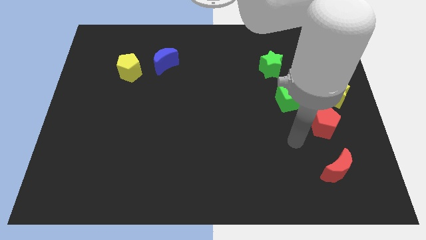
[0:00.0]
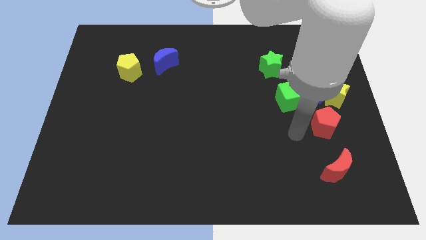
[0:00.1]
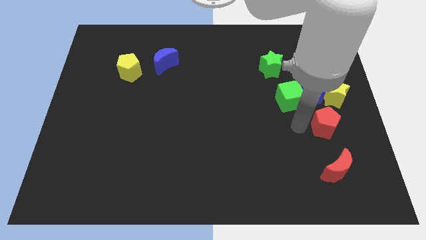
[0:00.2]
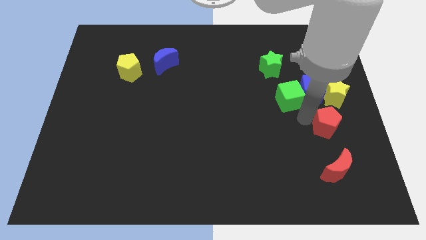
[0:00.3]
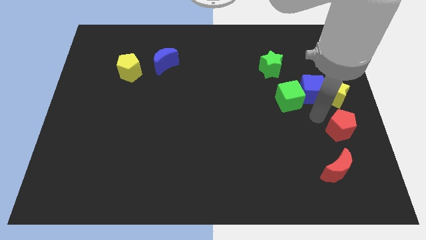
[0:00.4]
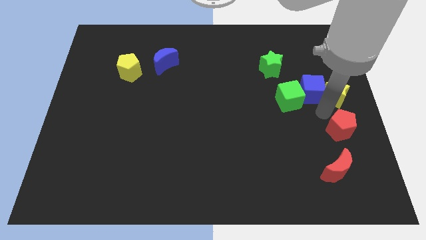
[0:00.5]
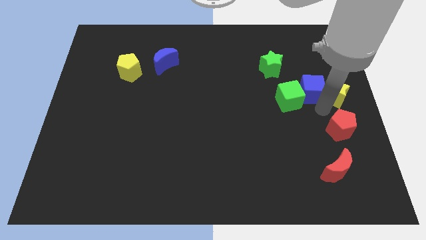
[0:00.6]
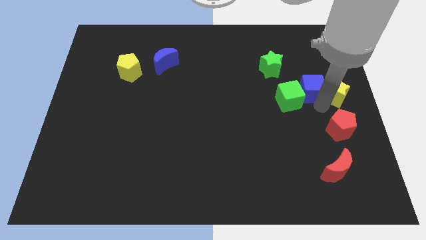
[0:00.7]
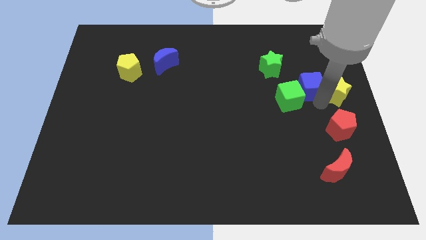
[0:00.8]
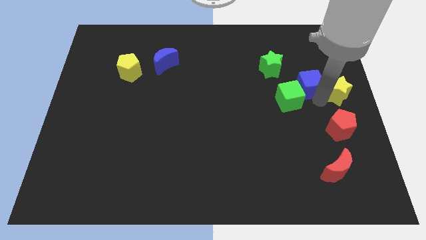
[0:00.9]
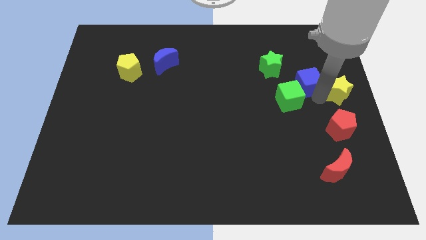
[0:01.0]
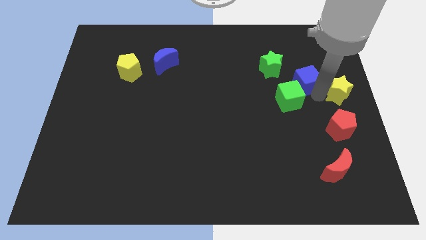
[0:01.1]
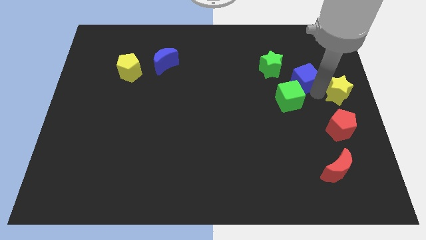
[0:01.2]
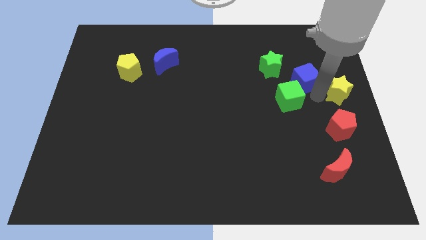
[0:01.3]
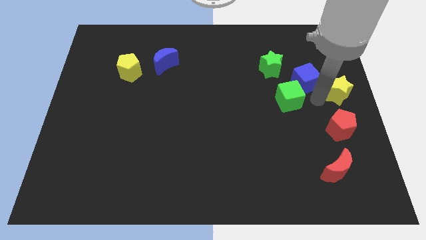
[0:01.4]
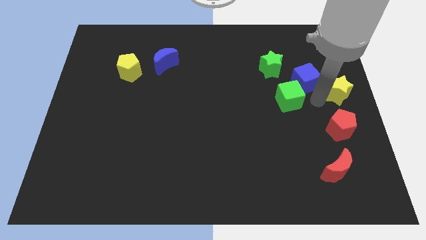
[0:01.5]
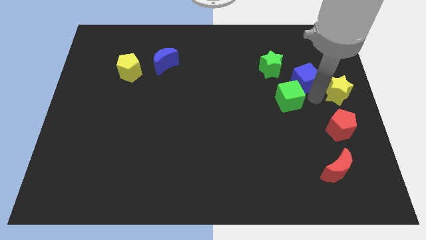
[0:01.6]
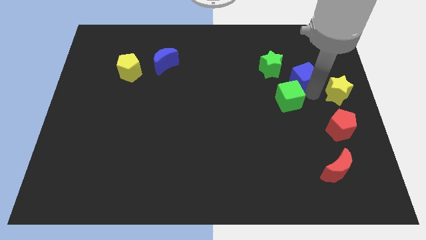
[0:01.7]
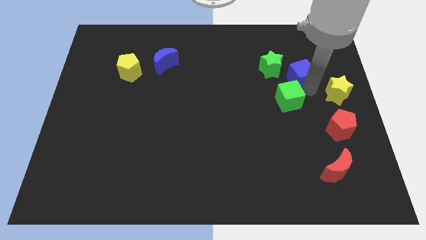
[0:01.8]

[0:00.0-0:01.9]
move the blue cube away from the group of blocks

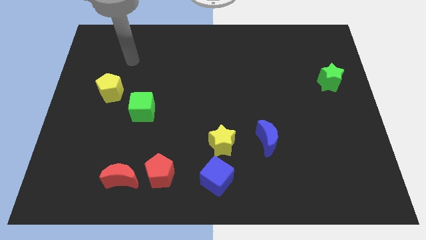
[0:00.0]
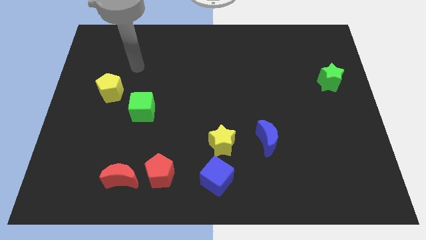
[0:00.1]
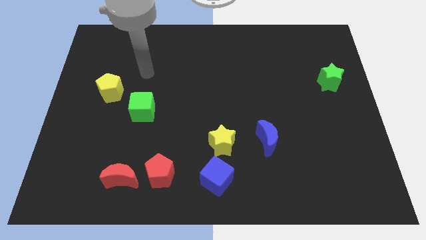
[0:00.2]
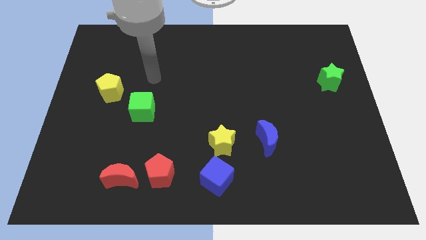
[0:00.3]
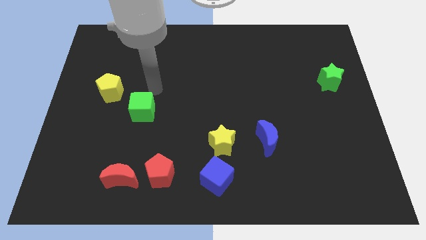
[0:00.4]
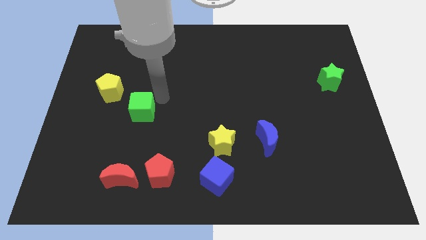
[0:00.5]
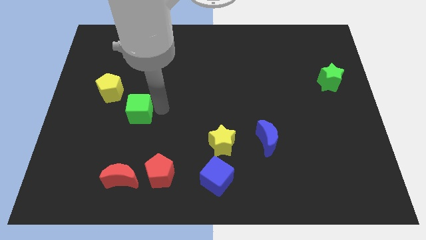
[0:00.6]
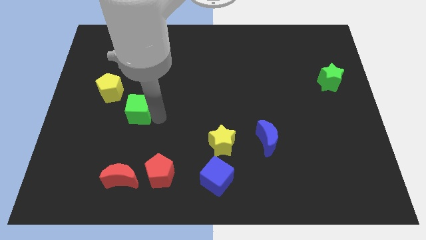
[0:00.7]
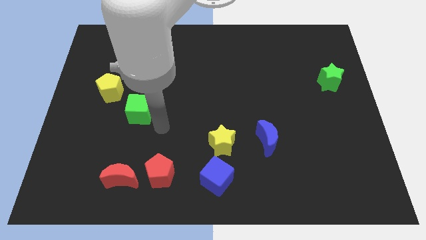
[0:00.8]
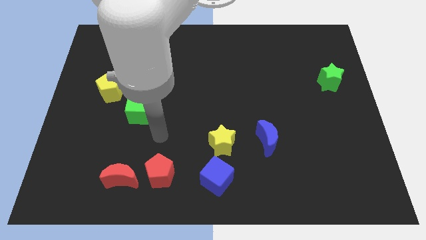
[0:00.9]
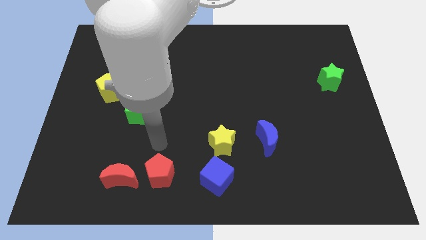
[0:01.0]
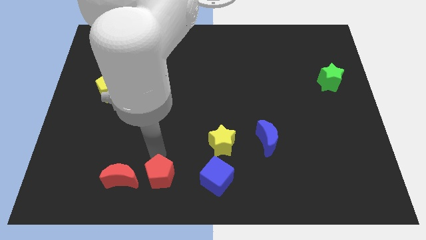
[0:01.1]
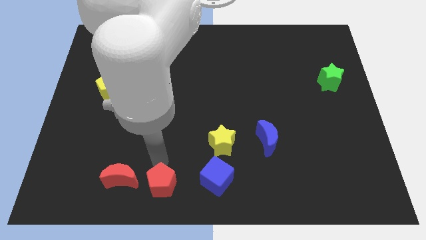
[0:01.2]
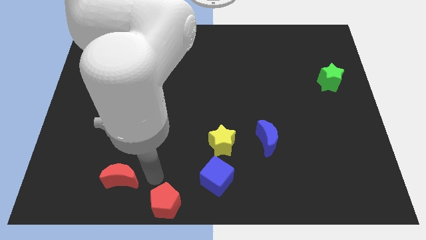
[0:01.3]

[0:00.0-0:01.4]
pull the red moon apart from the red pentagon

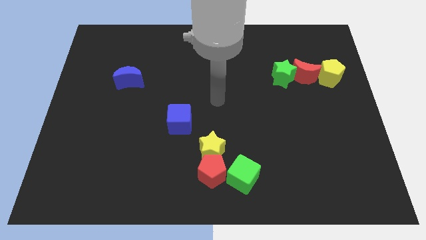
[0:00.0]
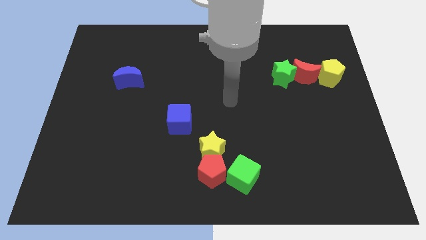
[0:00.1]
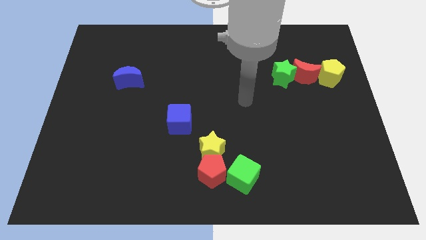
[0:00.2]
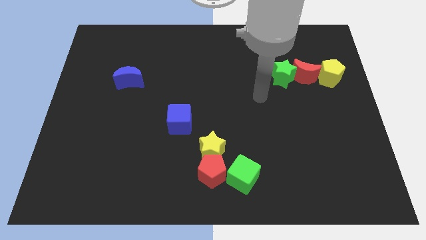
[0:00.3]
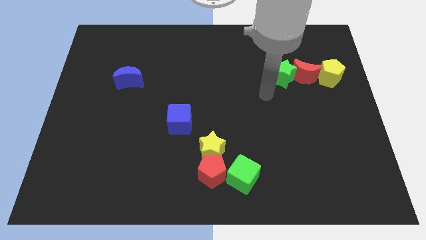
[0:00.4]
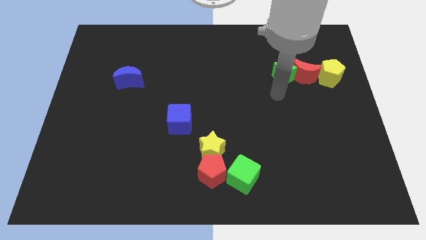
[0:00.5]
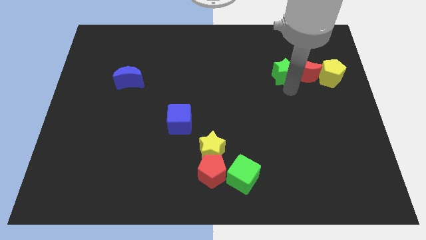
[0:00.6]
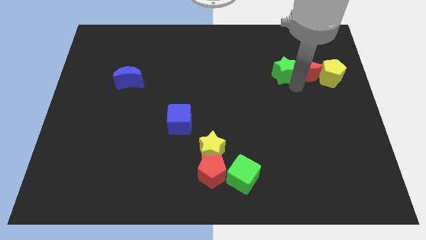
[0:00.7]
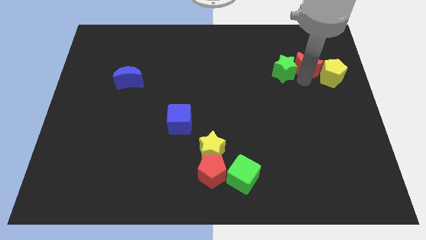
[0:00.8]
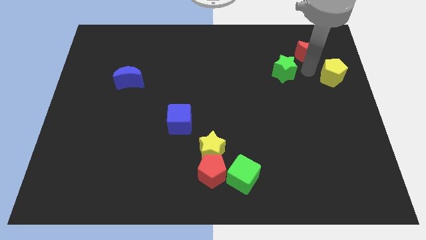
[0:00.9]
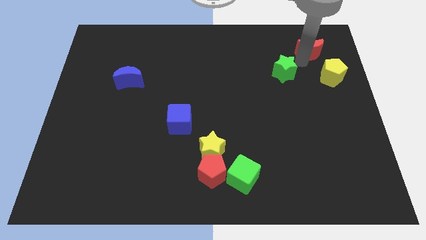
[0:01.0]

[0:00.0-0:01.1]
pull the green star apart from the red moon

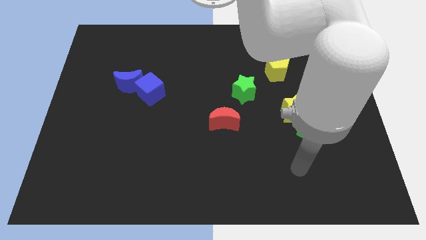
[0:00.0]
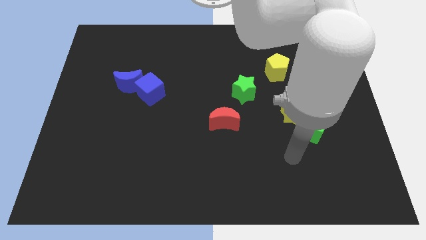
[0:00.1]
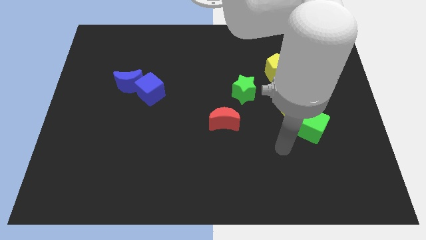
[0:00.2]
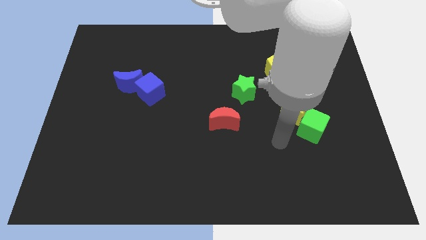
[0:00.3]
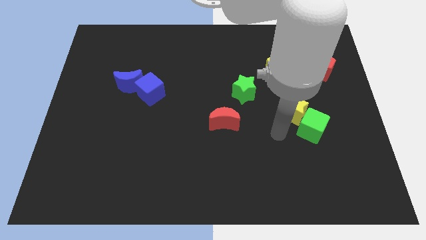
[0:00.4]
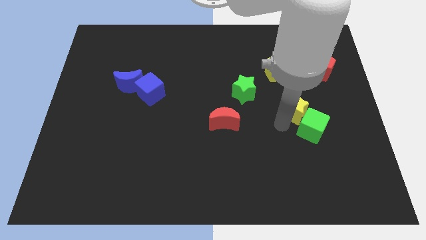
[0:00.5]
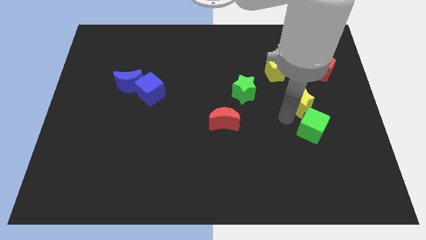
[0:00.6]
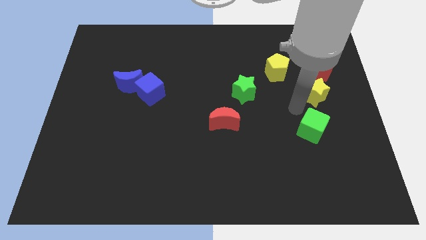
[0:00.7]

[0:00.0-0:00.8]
pull the green cube apart from the yellow star

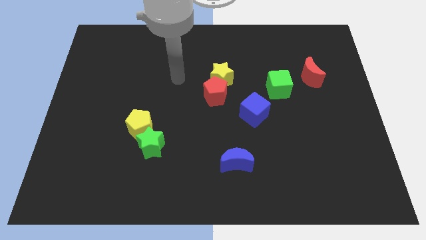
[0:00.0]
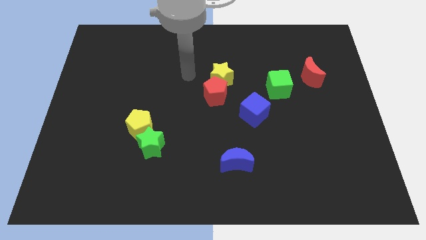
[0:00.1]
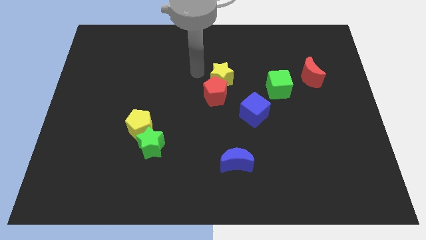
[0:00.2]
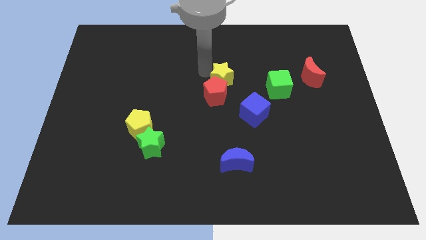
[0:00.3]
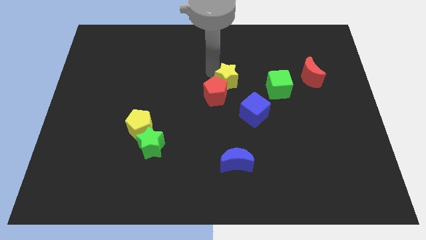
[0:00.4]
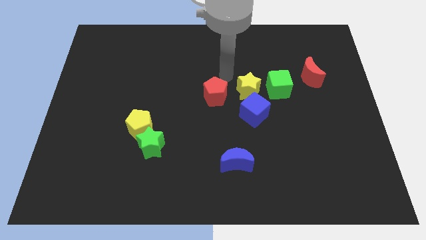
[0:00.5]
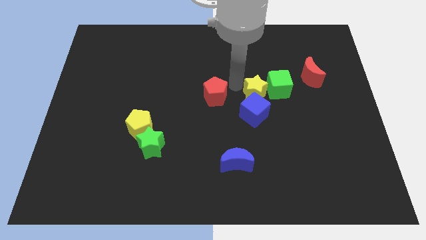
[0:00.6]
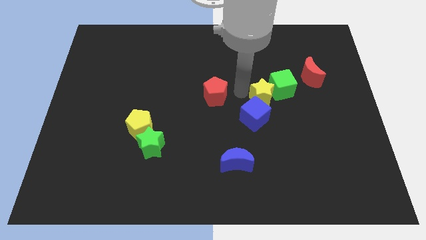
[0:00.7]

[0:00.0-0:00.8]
pull the red pentagon apart from the yellow star

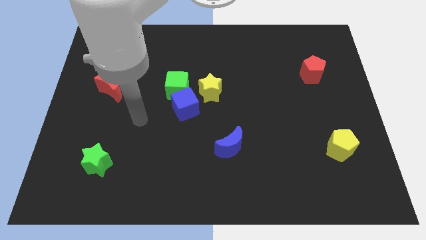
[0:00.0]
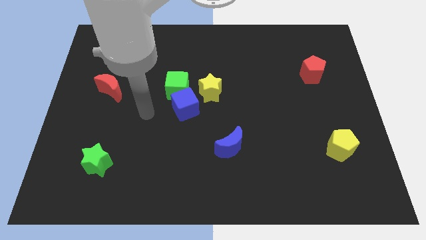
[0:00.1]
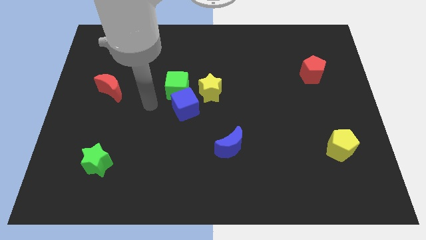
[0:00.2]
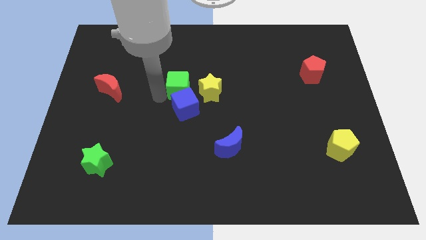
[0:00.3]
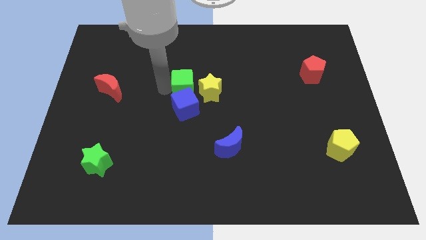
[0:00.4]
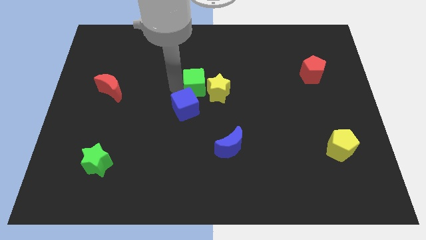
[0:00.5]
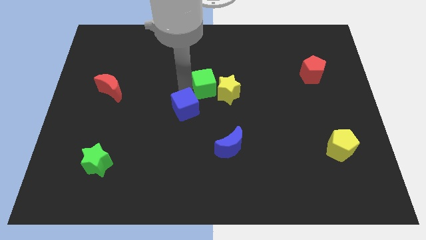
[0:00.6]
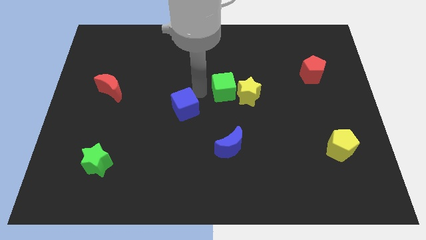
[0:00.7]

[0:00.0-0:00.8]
pull the blue cube apart from the green cube and yellow star

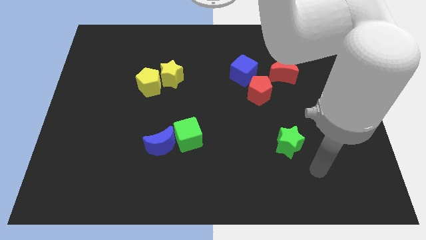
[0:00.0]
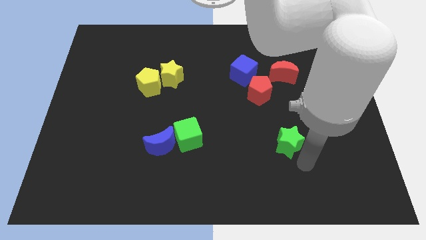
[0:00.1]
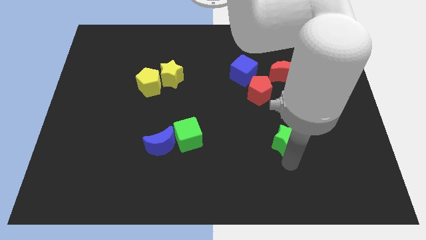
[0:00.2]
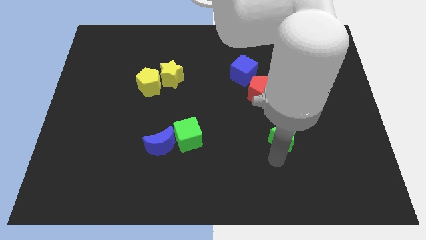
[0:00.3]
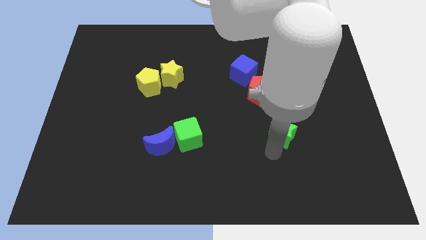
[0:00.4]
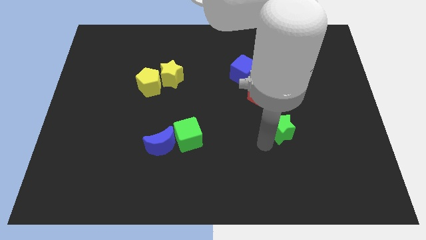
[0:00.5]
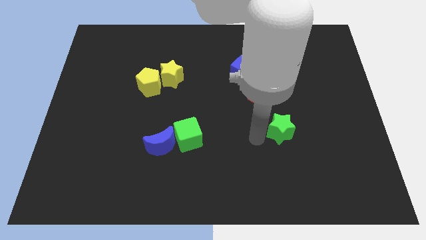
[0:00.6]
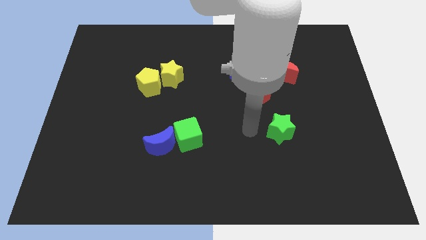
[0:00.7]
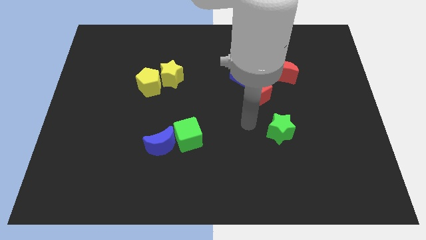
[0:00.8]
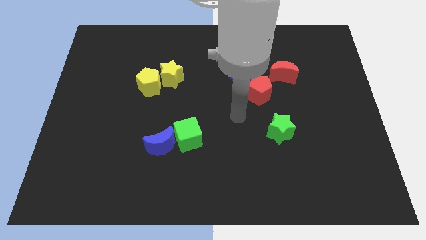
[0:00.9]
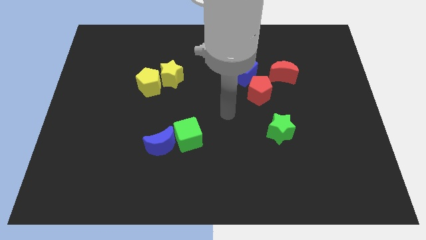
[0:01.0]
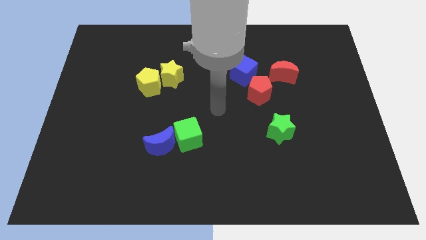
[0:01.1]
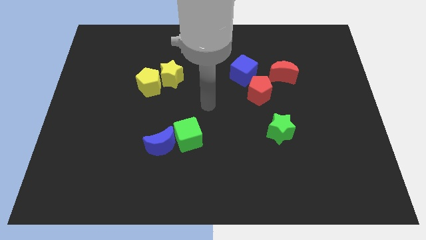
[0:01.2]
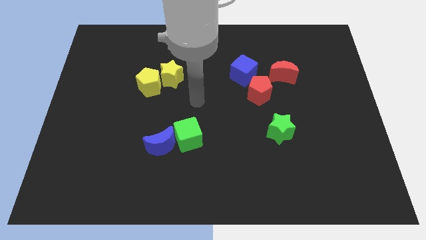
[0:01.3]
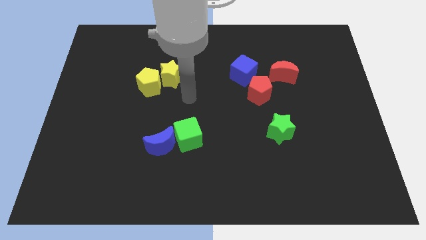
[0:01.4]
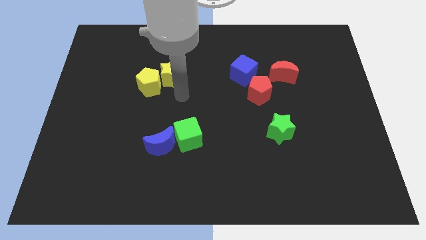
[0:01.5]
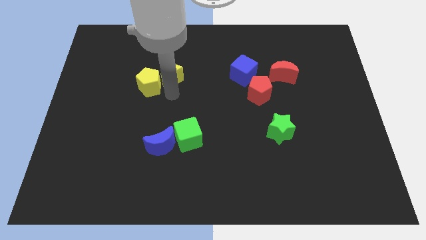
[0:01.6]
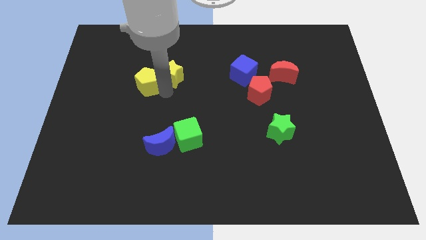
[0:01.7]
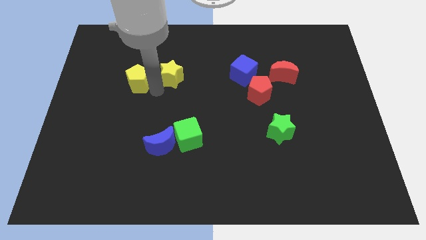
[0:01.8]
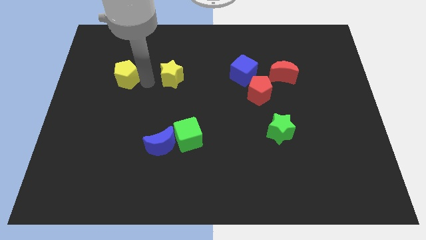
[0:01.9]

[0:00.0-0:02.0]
pull the yellow star apart from the yellow pentagon

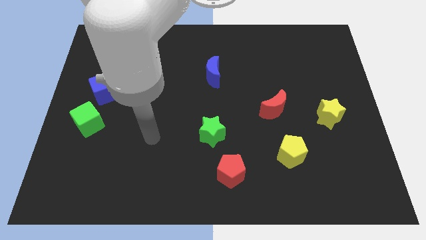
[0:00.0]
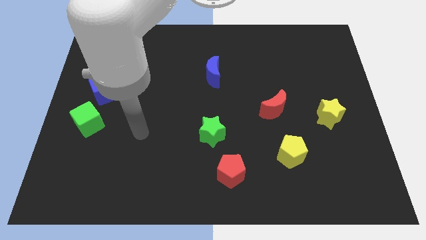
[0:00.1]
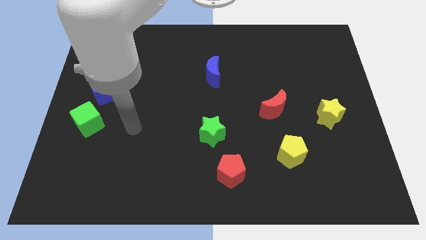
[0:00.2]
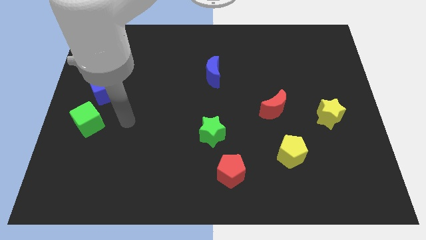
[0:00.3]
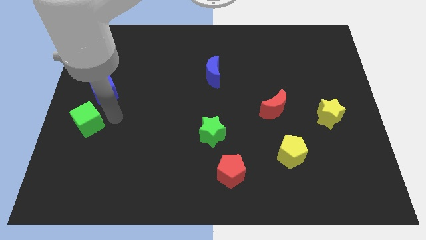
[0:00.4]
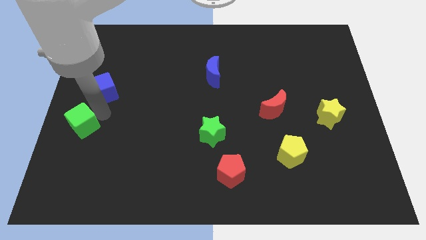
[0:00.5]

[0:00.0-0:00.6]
move the blue cube away from the green cube
